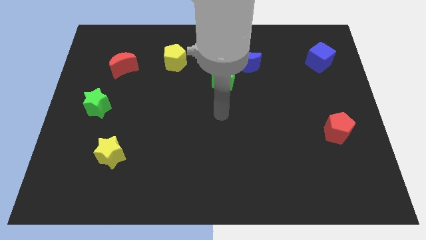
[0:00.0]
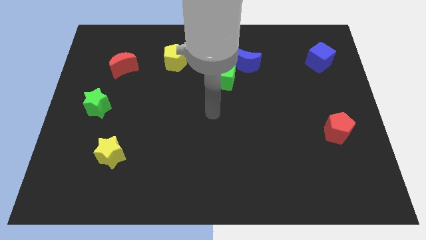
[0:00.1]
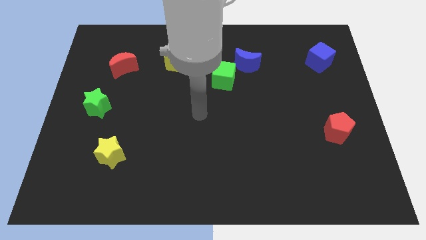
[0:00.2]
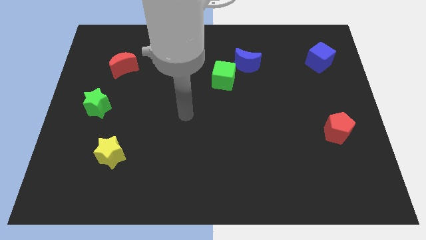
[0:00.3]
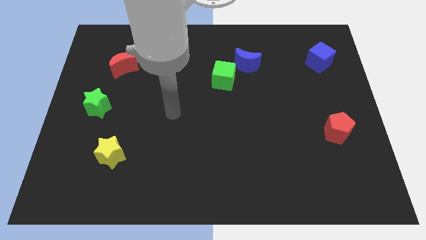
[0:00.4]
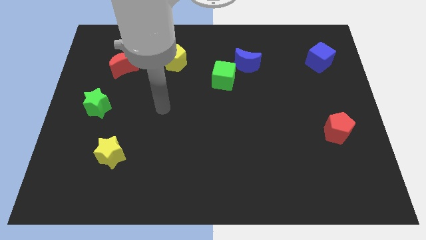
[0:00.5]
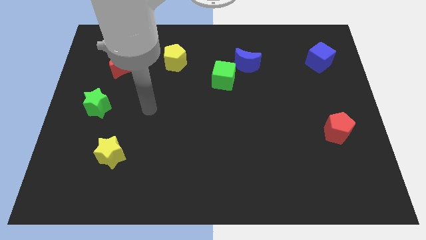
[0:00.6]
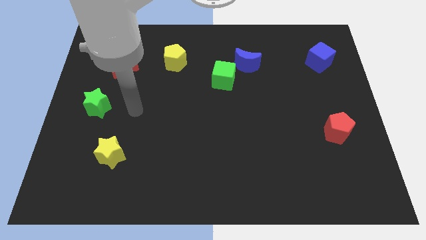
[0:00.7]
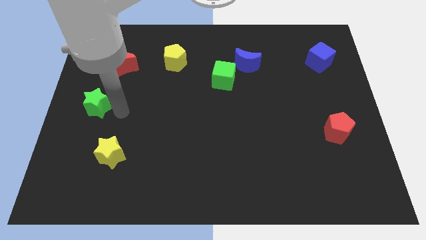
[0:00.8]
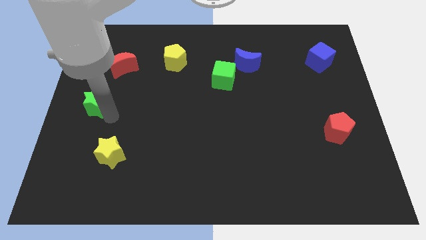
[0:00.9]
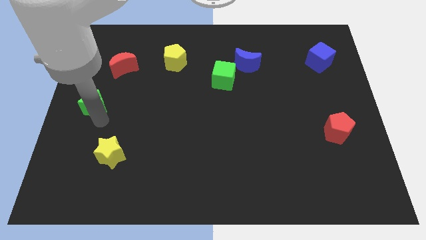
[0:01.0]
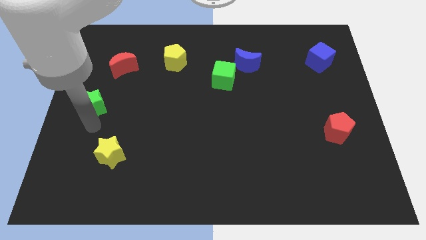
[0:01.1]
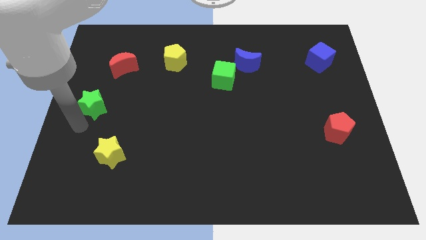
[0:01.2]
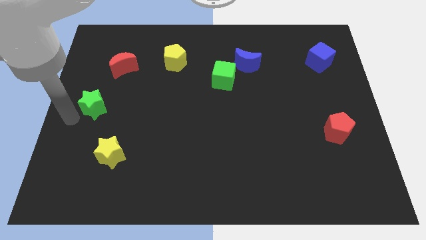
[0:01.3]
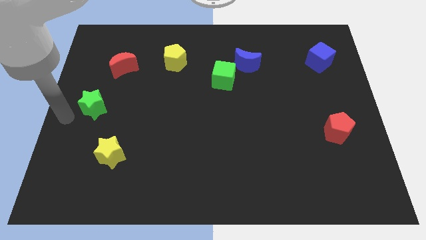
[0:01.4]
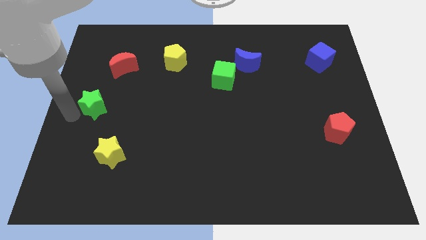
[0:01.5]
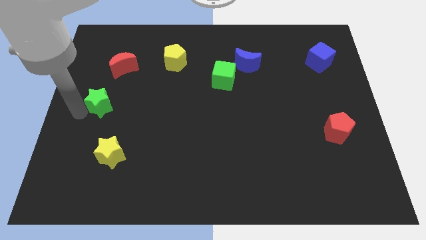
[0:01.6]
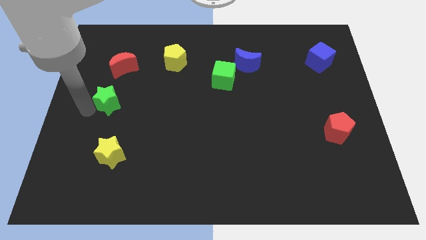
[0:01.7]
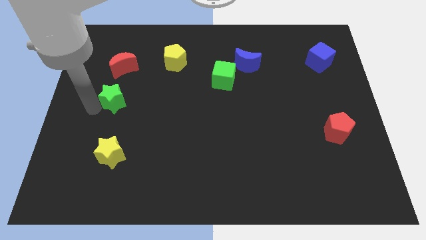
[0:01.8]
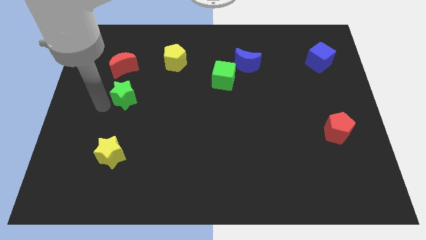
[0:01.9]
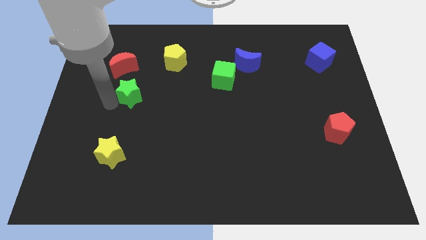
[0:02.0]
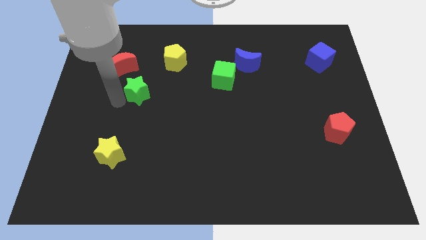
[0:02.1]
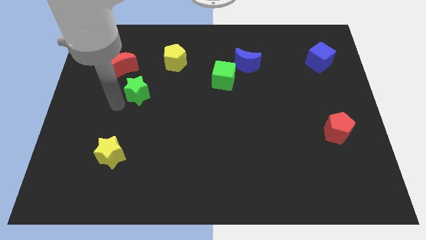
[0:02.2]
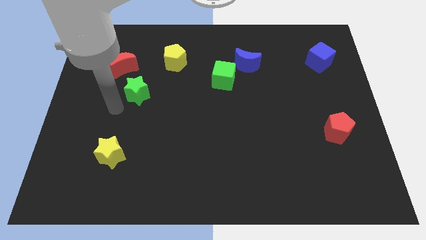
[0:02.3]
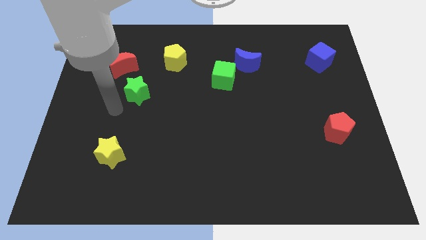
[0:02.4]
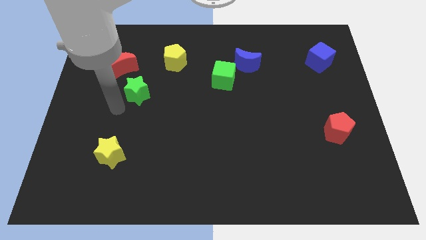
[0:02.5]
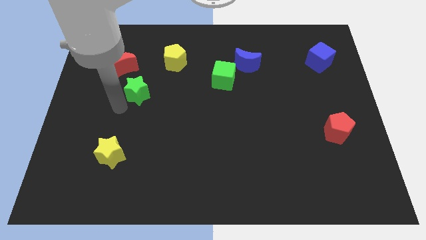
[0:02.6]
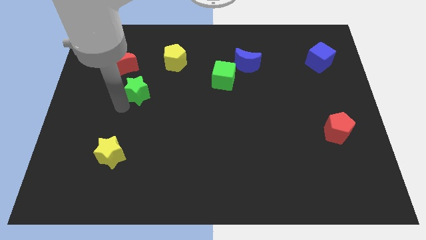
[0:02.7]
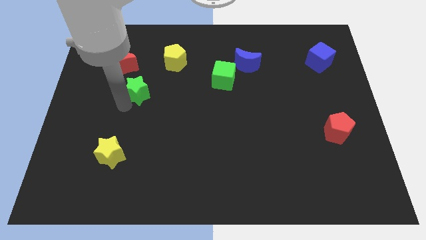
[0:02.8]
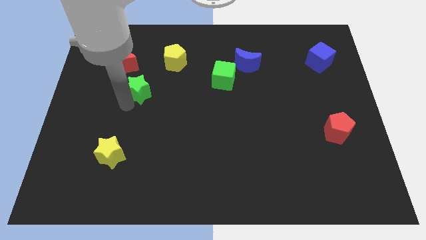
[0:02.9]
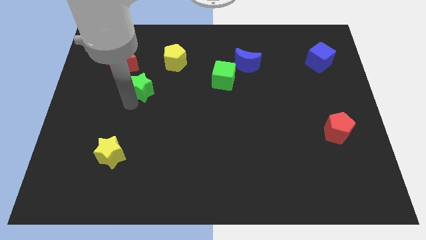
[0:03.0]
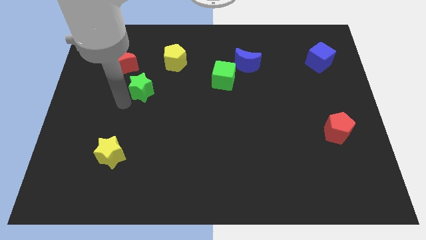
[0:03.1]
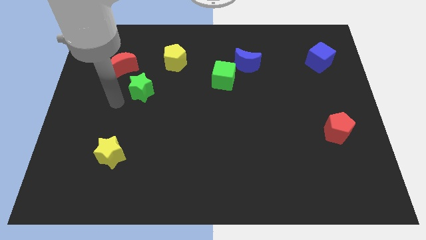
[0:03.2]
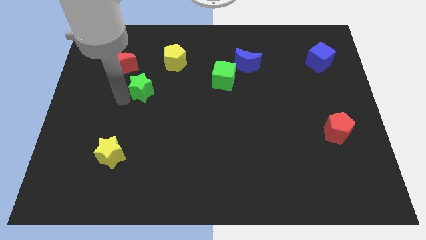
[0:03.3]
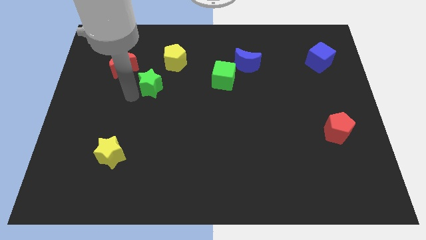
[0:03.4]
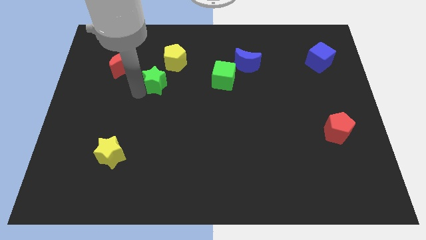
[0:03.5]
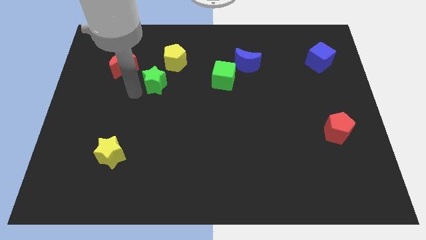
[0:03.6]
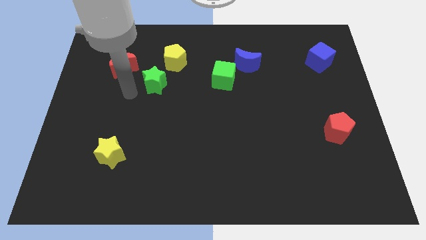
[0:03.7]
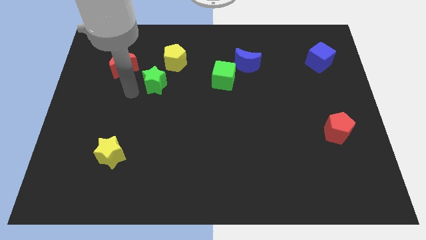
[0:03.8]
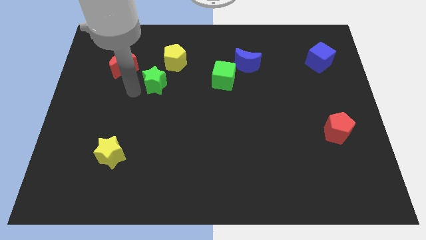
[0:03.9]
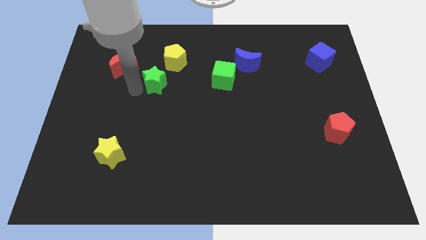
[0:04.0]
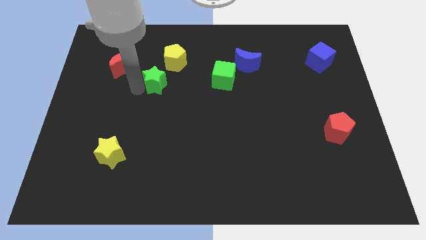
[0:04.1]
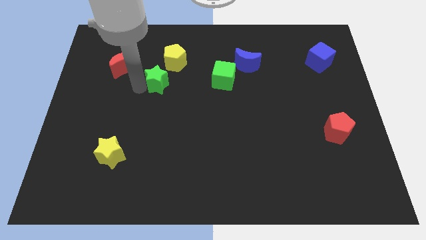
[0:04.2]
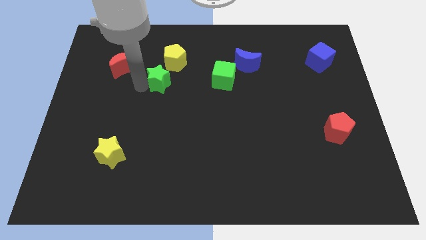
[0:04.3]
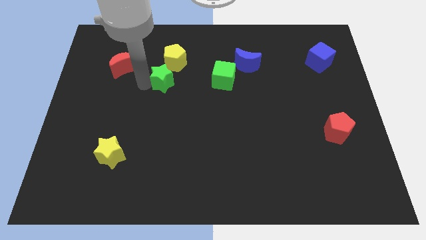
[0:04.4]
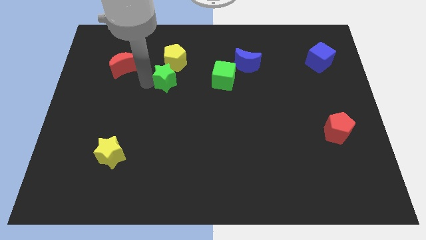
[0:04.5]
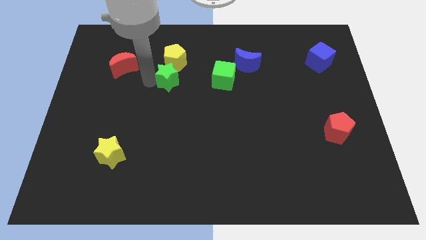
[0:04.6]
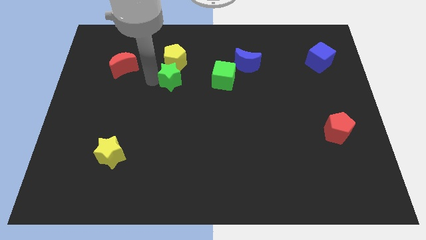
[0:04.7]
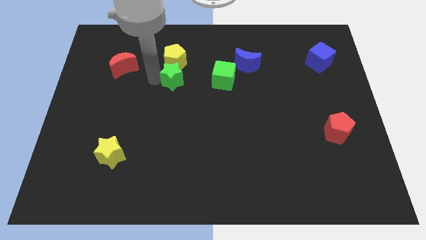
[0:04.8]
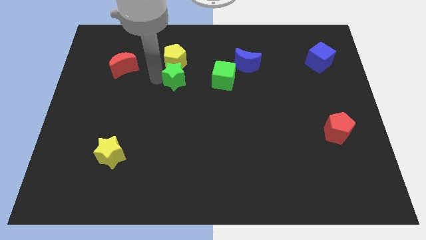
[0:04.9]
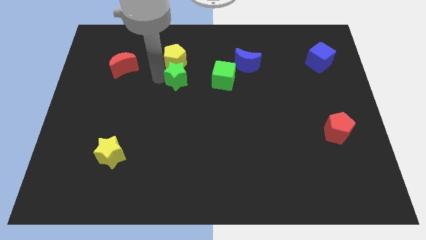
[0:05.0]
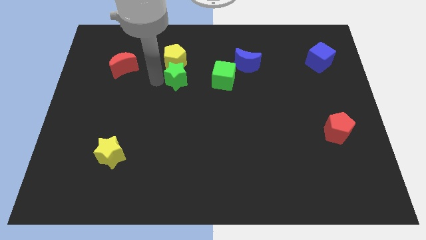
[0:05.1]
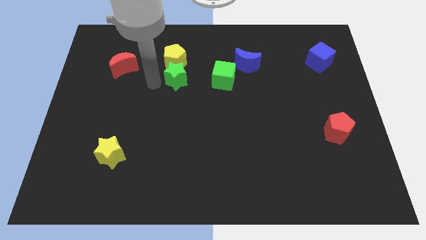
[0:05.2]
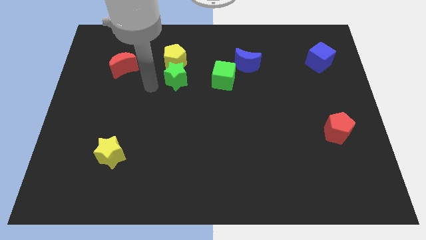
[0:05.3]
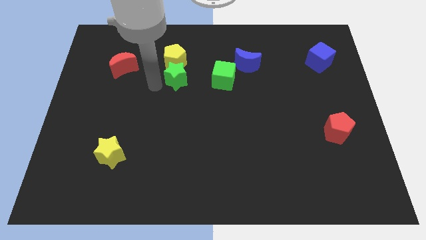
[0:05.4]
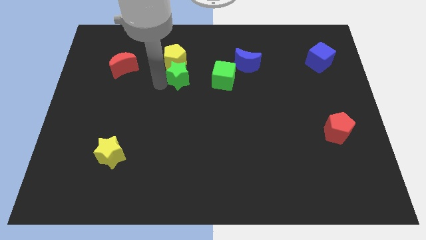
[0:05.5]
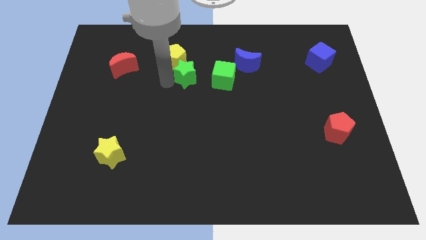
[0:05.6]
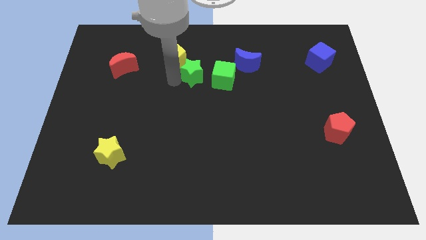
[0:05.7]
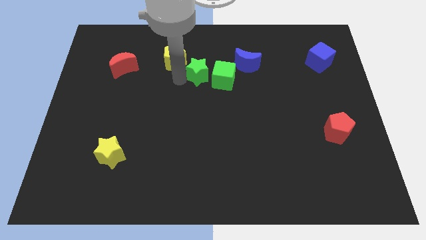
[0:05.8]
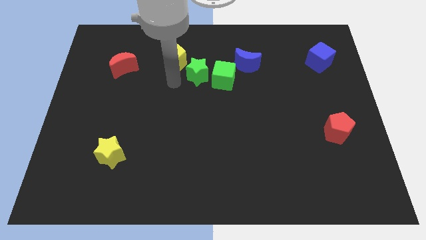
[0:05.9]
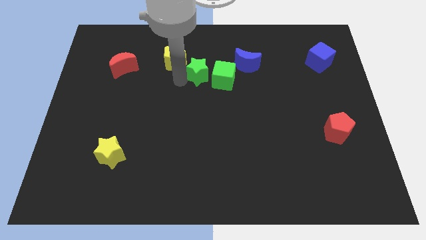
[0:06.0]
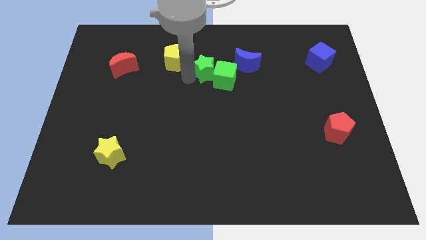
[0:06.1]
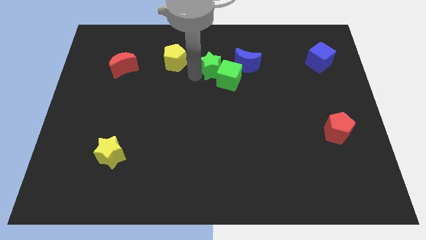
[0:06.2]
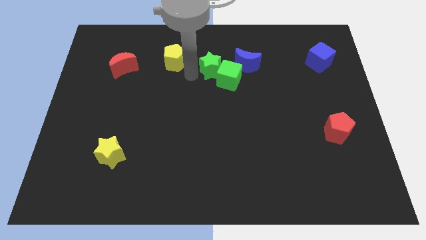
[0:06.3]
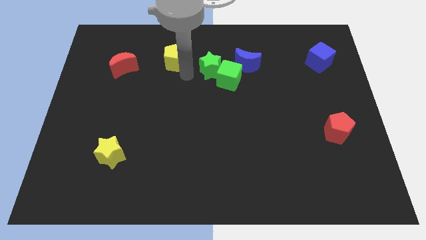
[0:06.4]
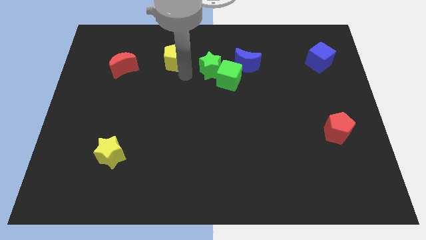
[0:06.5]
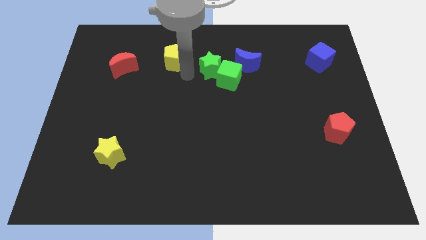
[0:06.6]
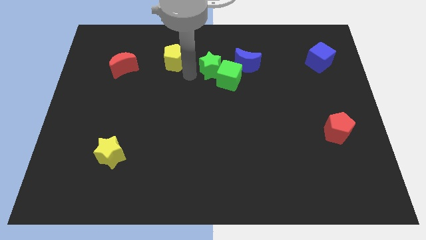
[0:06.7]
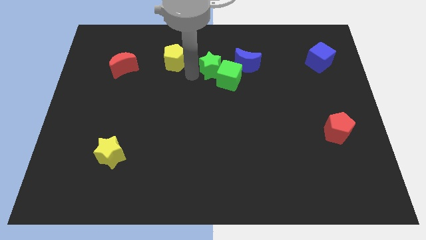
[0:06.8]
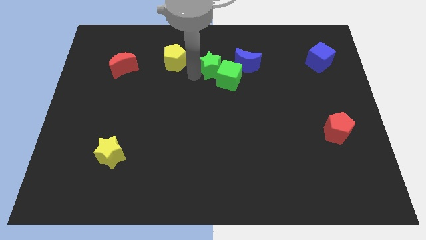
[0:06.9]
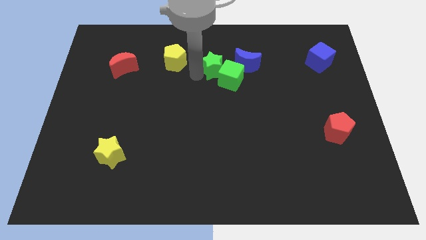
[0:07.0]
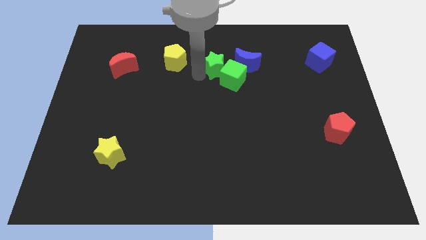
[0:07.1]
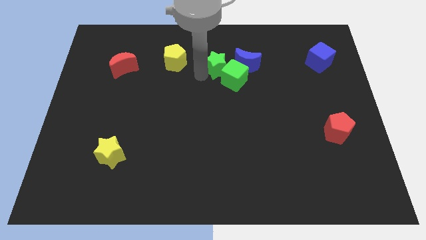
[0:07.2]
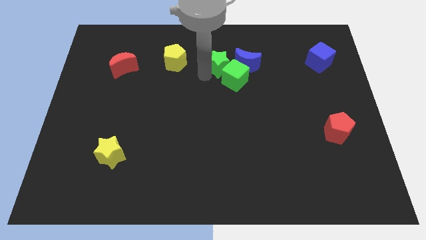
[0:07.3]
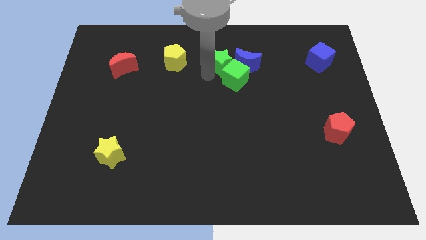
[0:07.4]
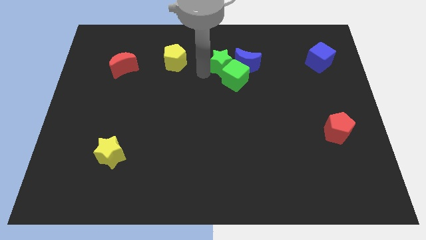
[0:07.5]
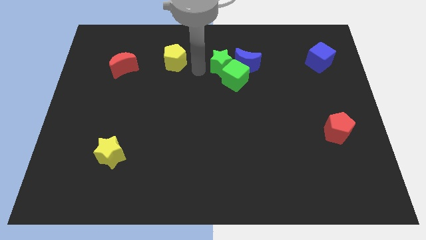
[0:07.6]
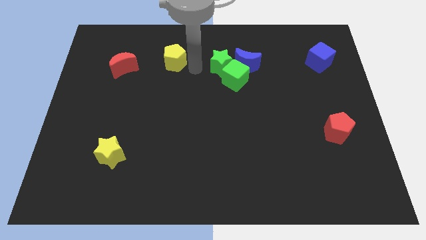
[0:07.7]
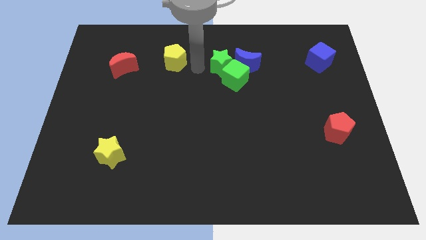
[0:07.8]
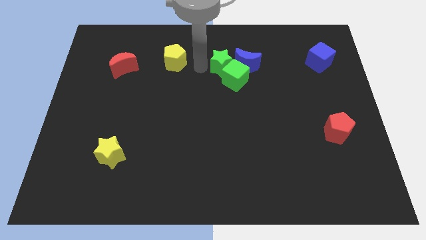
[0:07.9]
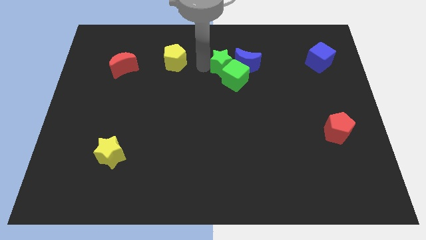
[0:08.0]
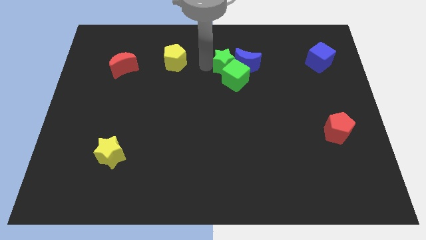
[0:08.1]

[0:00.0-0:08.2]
push the green star towards the blue moon
